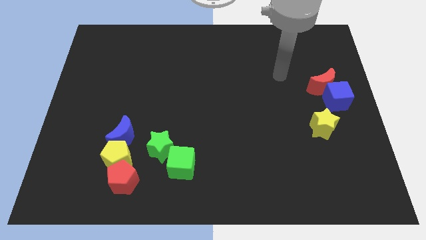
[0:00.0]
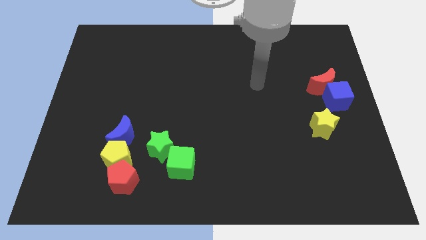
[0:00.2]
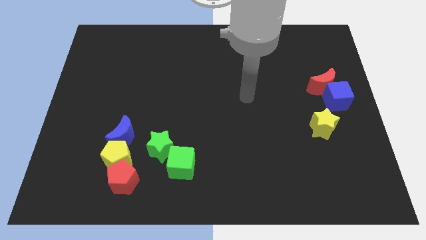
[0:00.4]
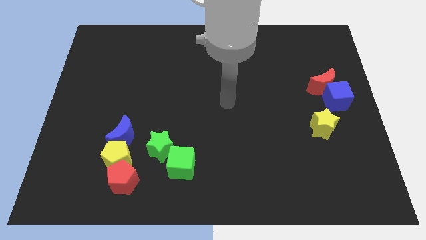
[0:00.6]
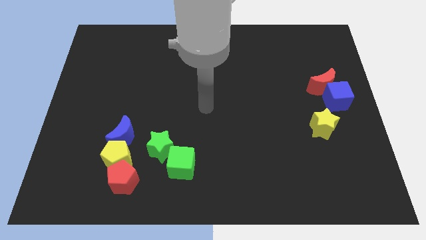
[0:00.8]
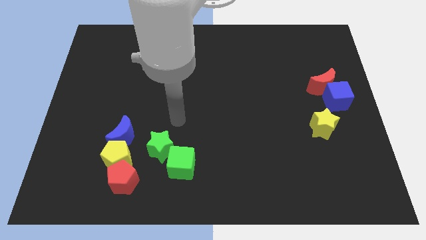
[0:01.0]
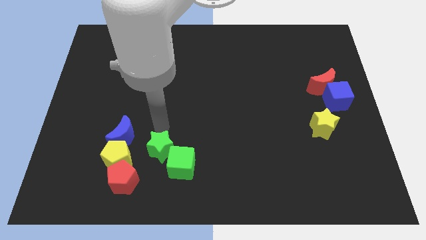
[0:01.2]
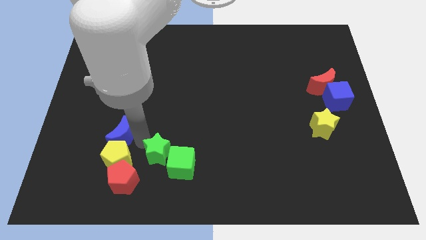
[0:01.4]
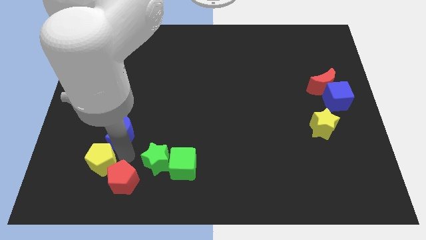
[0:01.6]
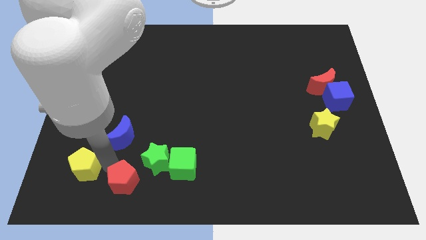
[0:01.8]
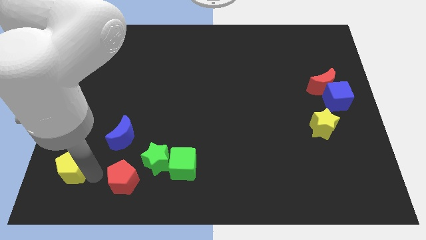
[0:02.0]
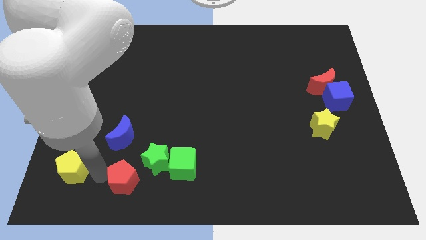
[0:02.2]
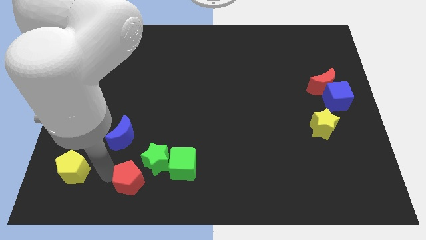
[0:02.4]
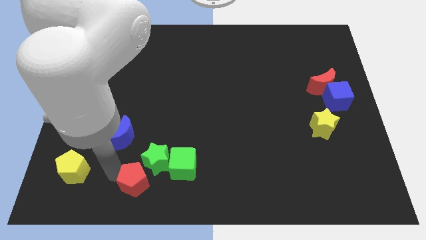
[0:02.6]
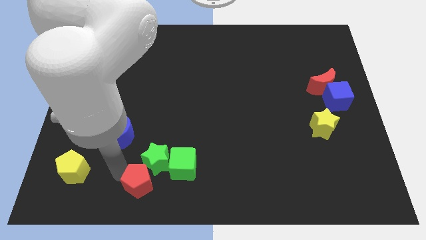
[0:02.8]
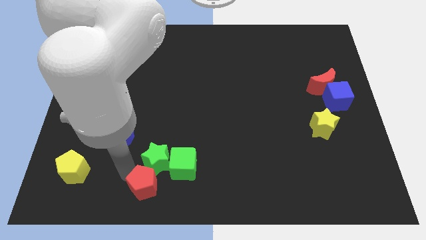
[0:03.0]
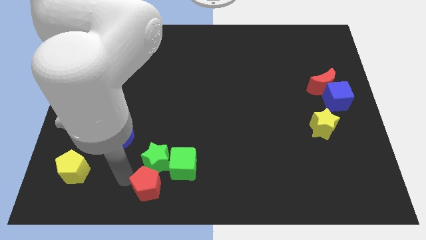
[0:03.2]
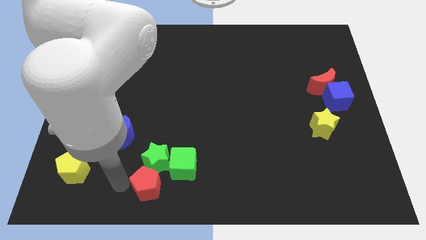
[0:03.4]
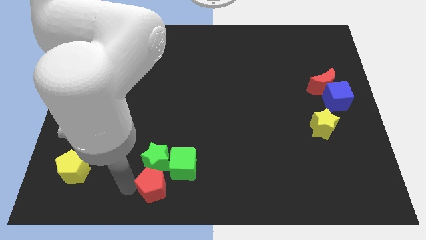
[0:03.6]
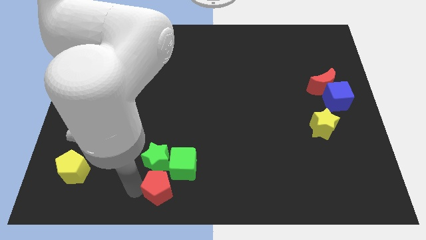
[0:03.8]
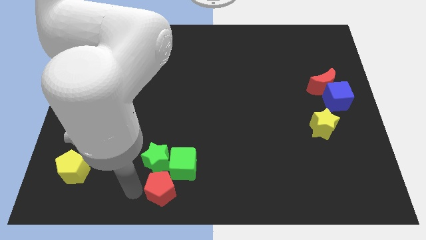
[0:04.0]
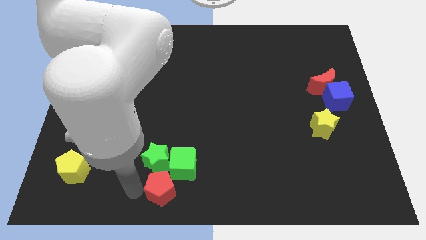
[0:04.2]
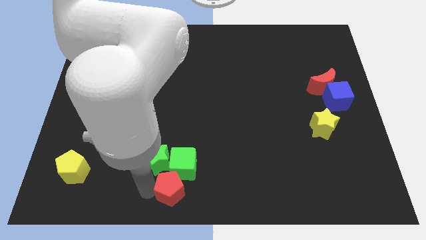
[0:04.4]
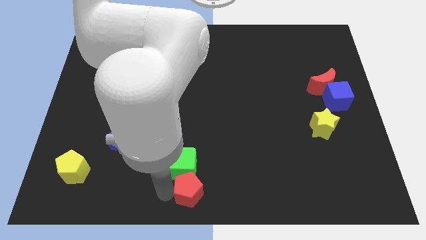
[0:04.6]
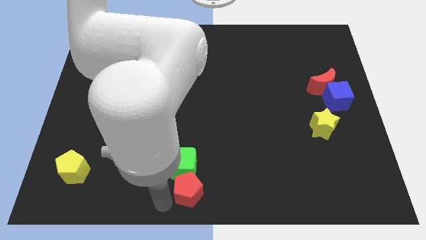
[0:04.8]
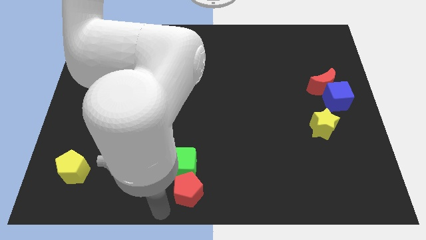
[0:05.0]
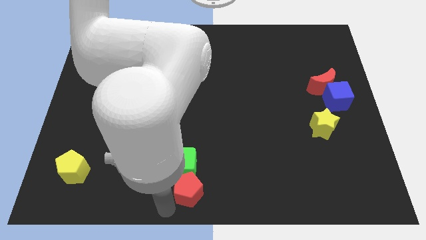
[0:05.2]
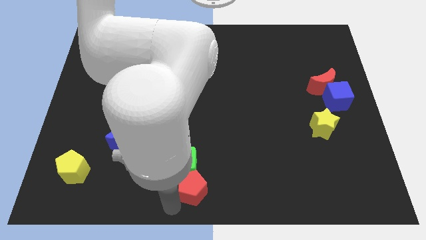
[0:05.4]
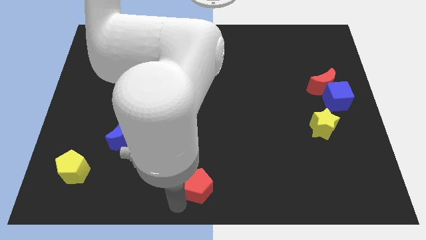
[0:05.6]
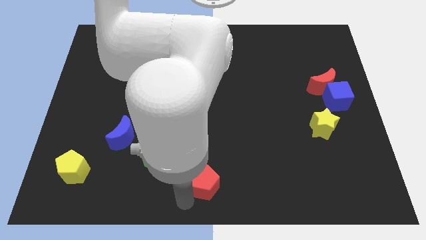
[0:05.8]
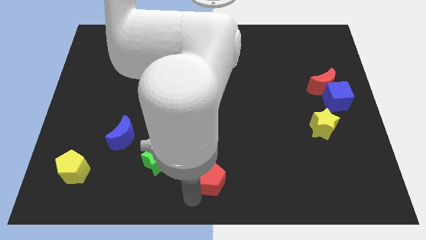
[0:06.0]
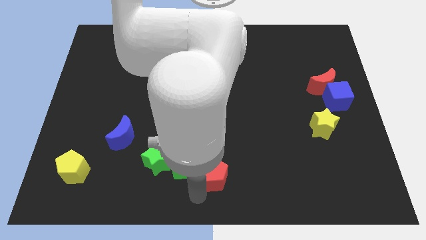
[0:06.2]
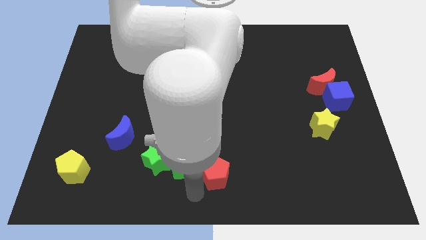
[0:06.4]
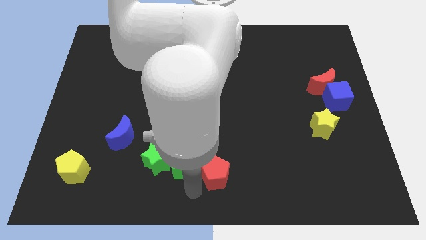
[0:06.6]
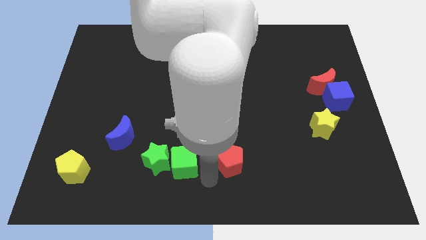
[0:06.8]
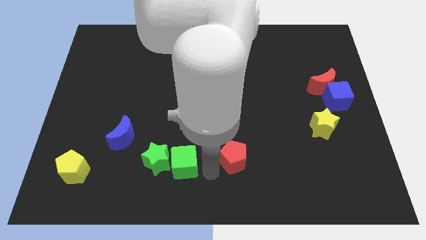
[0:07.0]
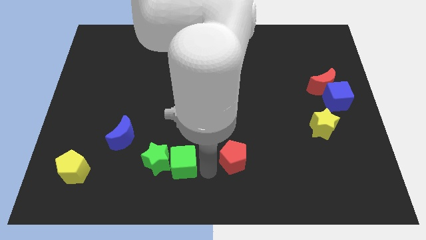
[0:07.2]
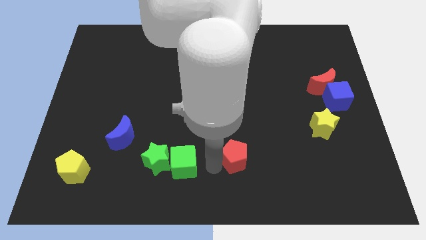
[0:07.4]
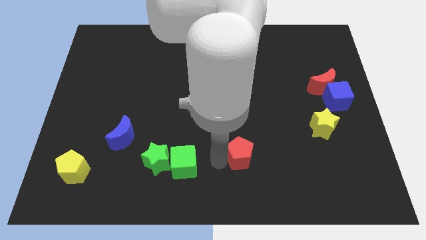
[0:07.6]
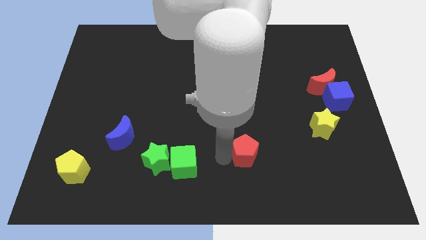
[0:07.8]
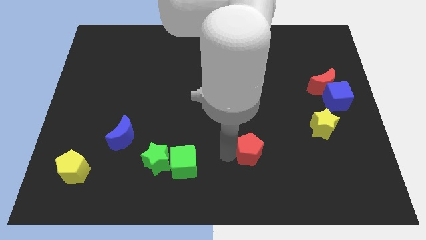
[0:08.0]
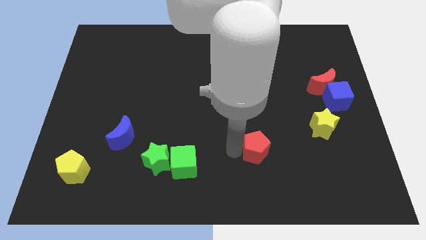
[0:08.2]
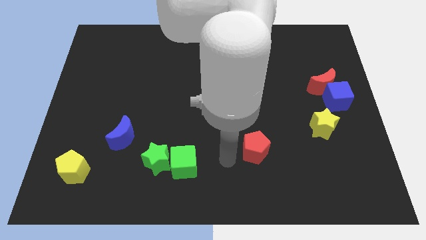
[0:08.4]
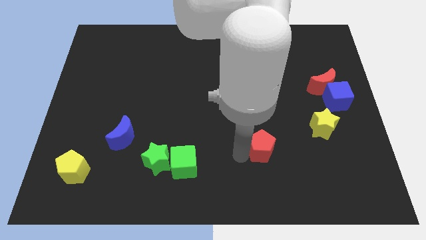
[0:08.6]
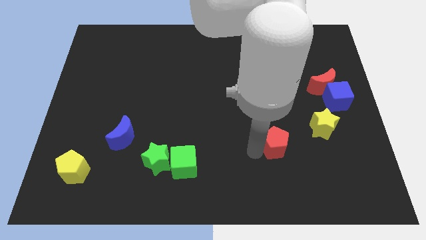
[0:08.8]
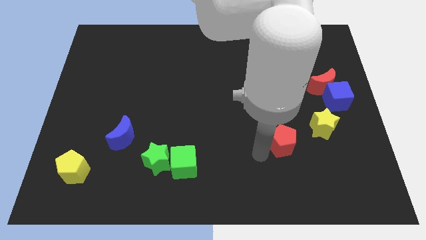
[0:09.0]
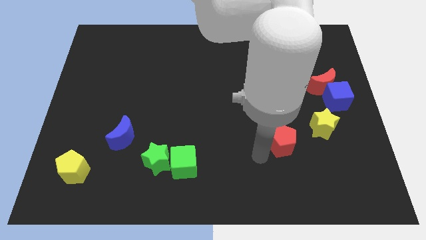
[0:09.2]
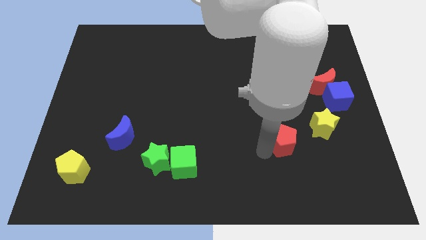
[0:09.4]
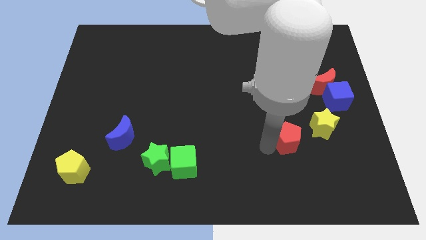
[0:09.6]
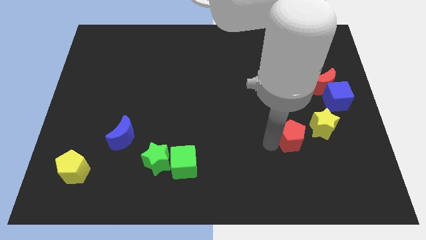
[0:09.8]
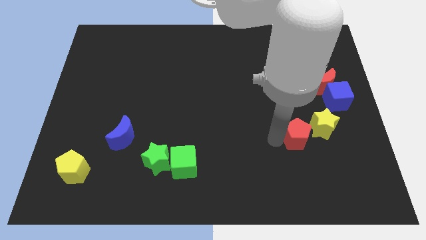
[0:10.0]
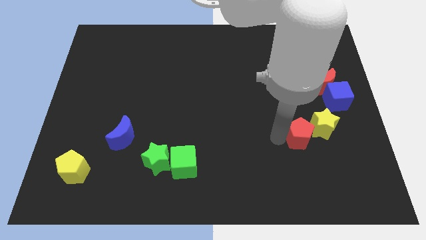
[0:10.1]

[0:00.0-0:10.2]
move the red pentagon to the yellow star

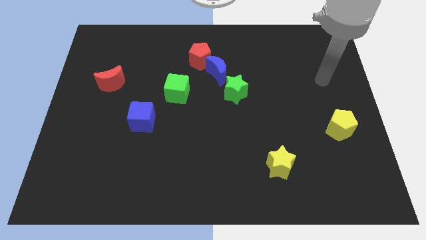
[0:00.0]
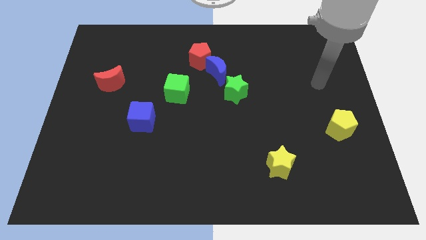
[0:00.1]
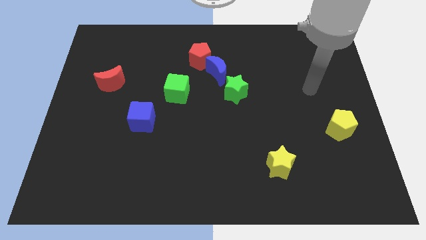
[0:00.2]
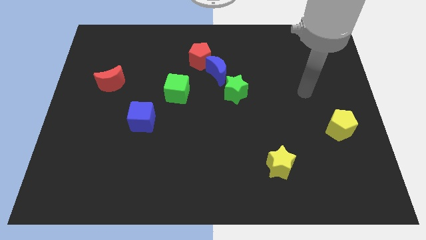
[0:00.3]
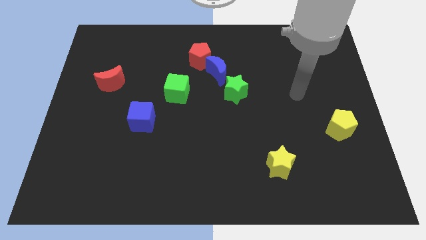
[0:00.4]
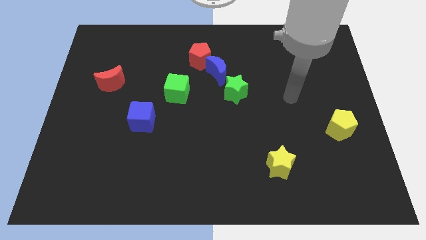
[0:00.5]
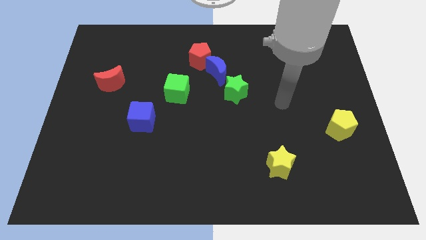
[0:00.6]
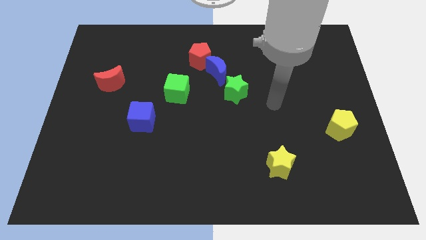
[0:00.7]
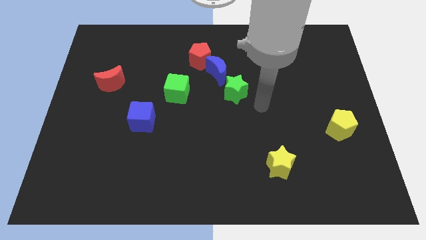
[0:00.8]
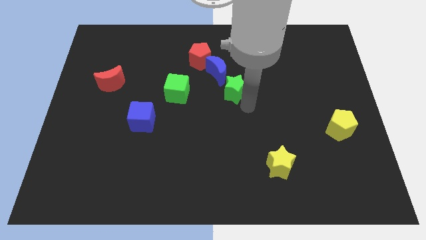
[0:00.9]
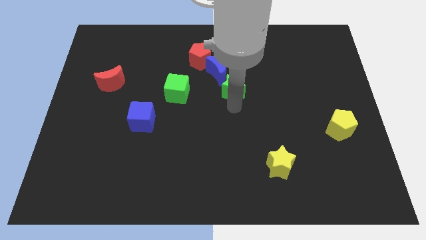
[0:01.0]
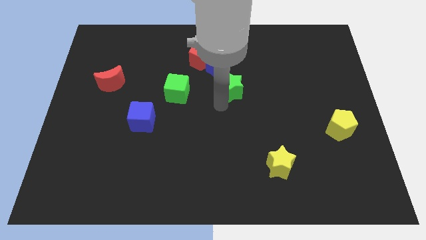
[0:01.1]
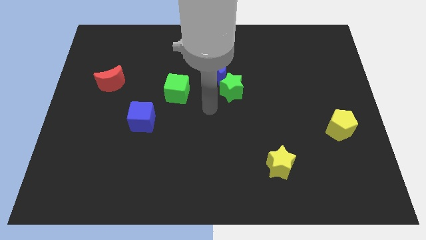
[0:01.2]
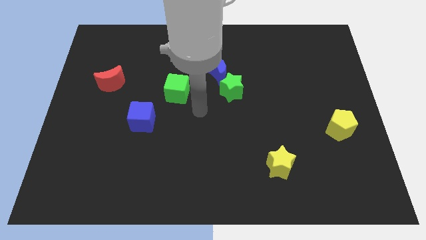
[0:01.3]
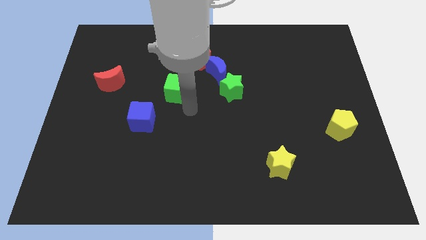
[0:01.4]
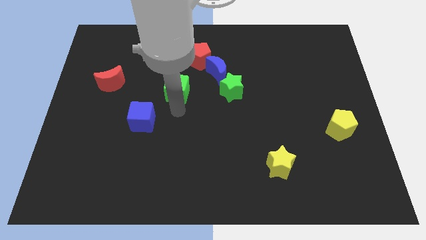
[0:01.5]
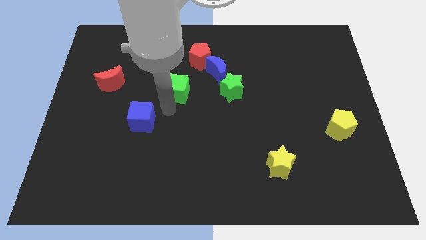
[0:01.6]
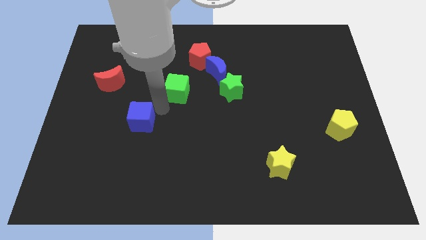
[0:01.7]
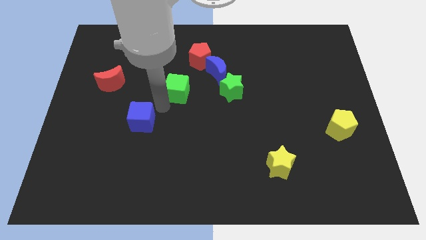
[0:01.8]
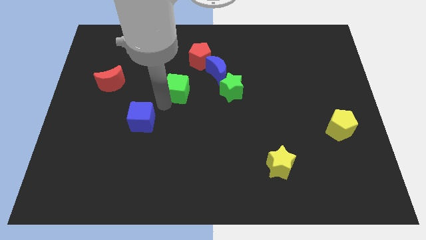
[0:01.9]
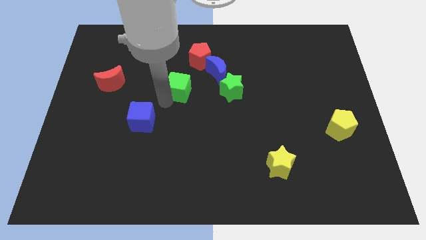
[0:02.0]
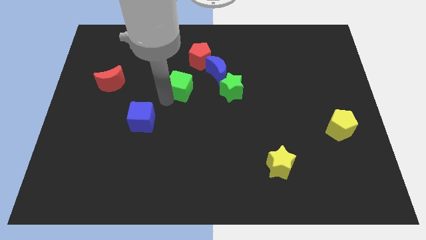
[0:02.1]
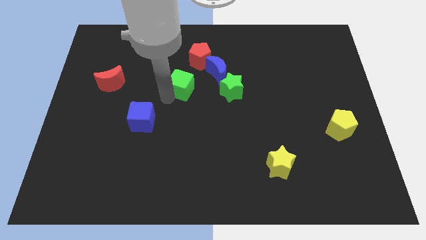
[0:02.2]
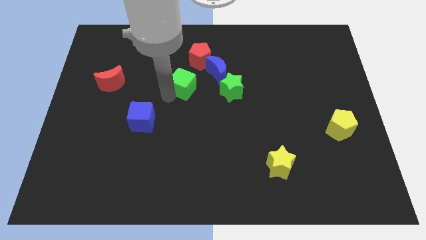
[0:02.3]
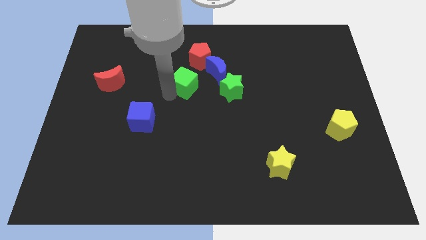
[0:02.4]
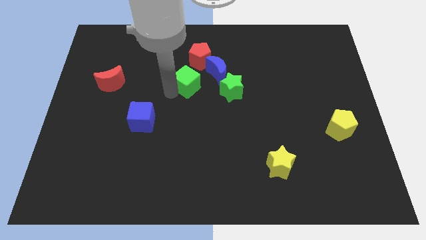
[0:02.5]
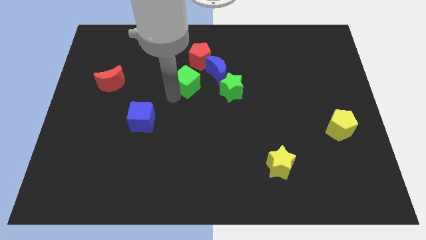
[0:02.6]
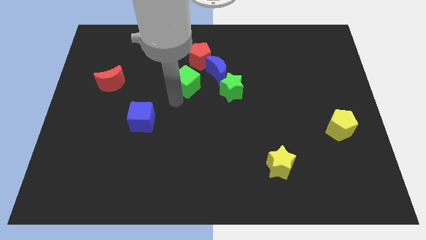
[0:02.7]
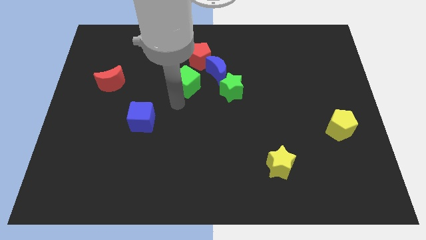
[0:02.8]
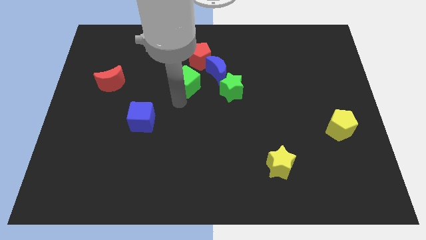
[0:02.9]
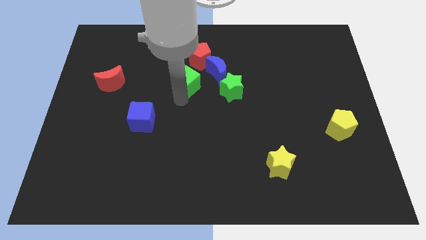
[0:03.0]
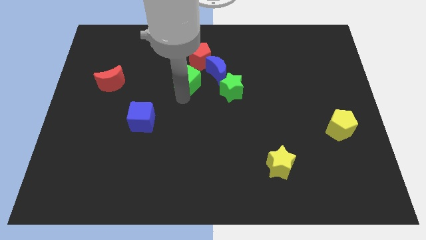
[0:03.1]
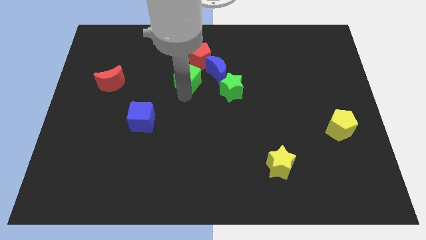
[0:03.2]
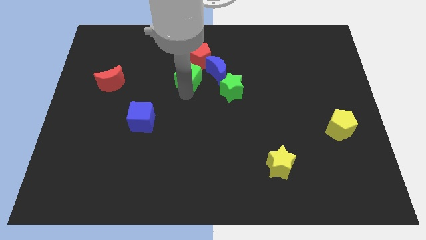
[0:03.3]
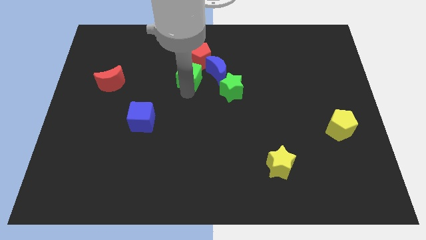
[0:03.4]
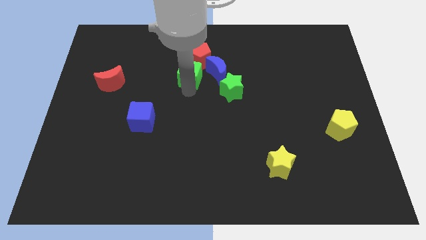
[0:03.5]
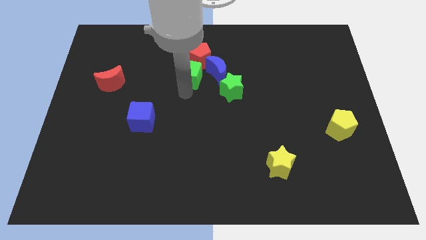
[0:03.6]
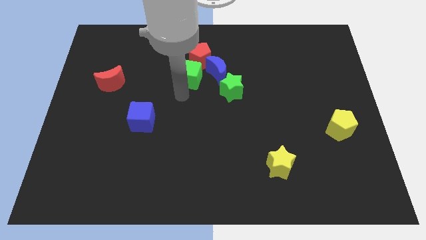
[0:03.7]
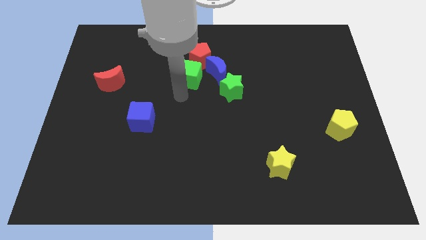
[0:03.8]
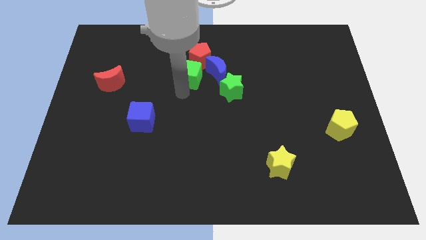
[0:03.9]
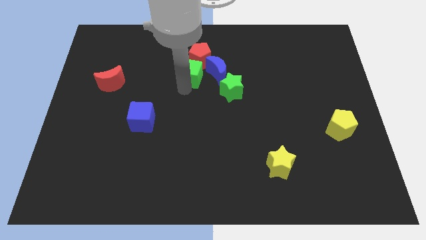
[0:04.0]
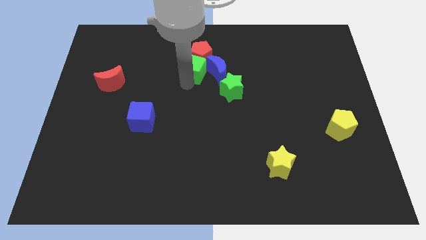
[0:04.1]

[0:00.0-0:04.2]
slide the green cube next to the red pentagon
